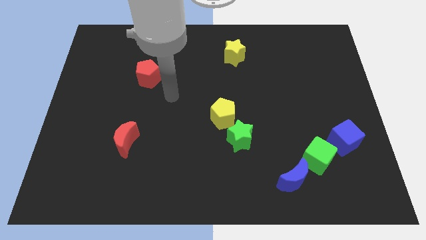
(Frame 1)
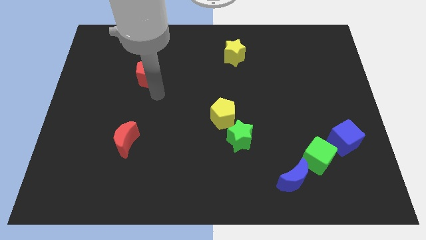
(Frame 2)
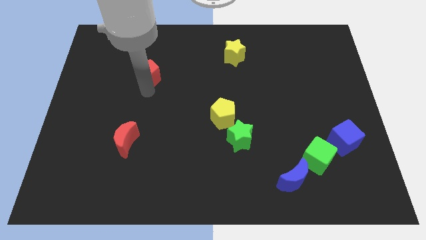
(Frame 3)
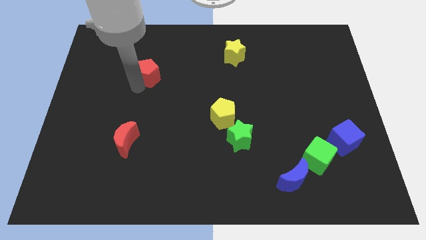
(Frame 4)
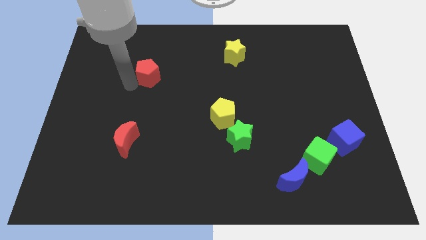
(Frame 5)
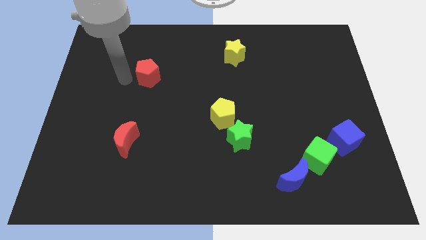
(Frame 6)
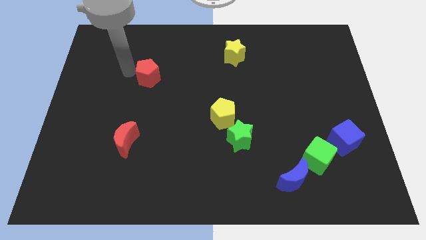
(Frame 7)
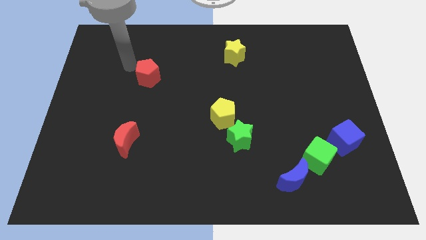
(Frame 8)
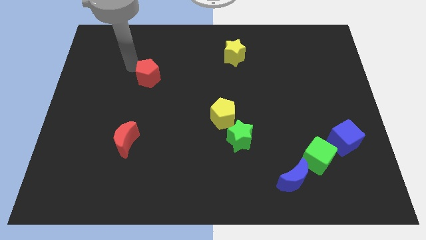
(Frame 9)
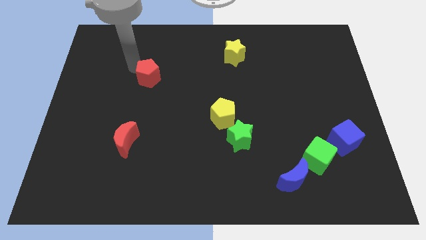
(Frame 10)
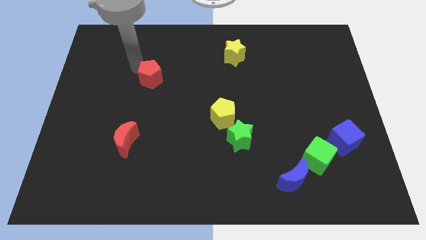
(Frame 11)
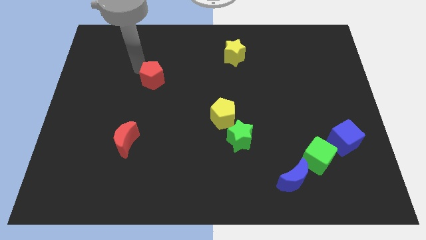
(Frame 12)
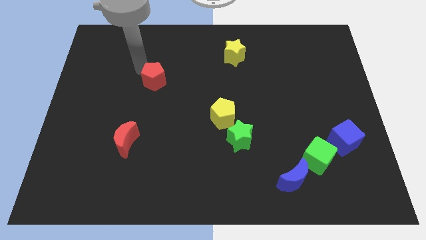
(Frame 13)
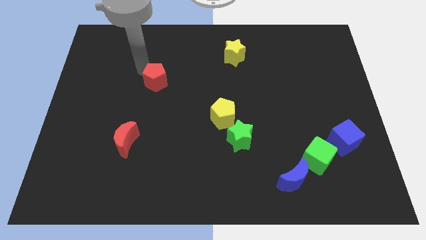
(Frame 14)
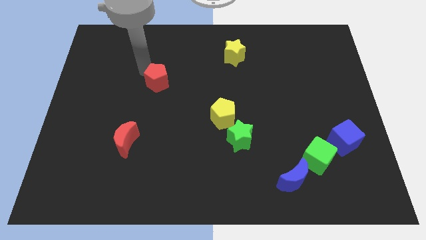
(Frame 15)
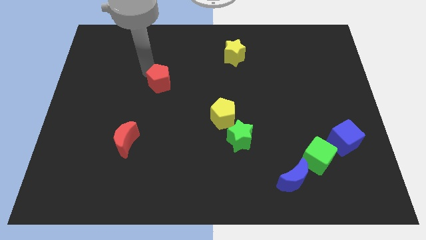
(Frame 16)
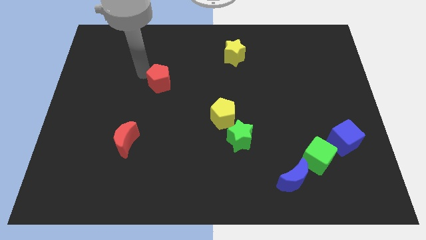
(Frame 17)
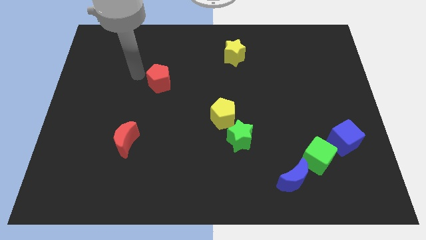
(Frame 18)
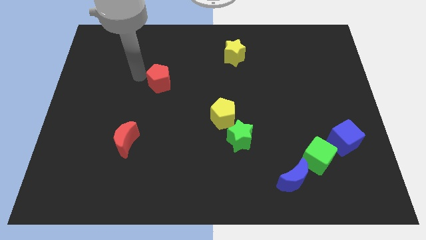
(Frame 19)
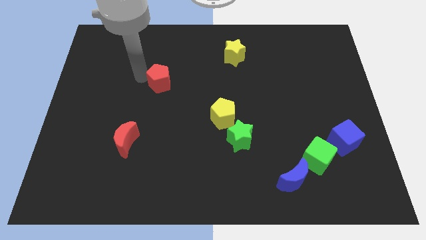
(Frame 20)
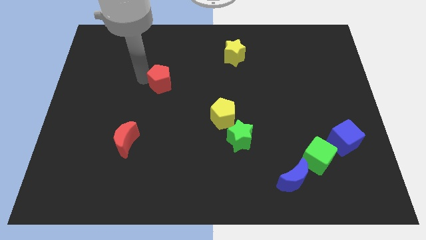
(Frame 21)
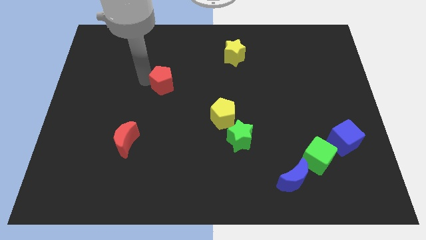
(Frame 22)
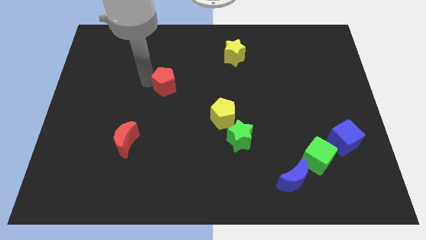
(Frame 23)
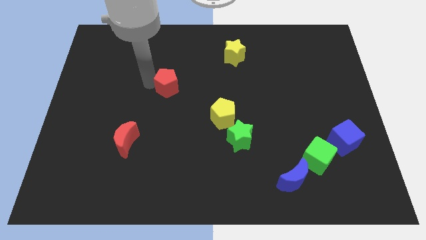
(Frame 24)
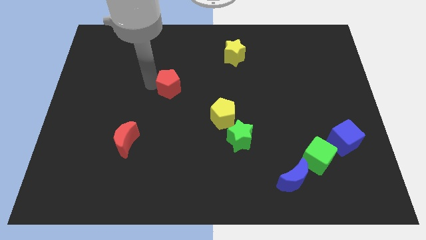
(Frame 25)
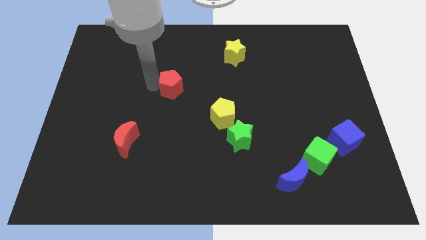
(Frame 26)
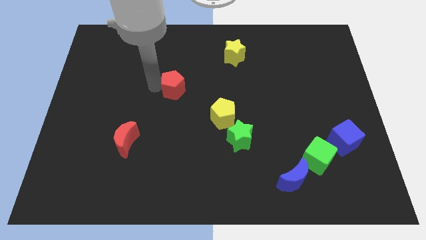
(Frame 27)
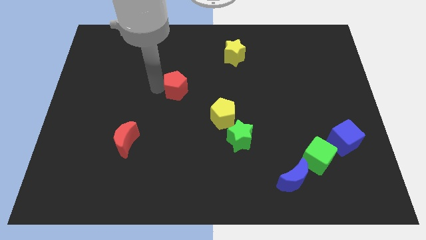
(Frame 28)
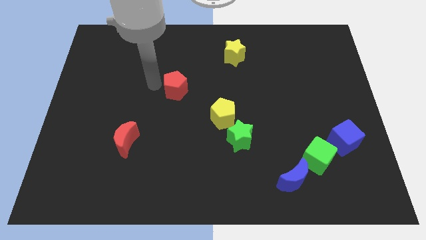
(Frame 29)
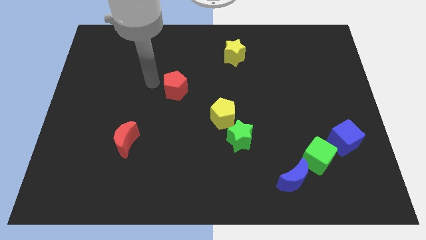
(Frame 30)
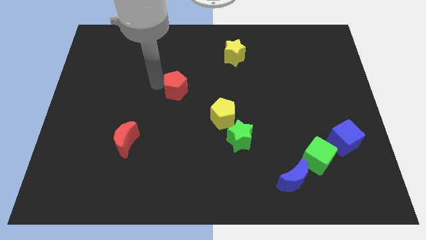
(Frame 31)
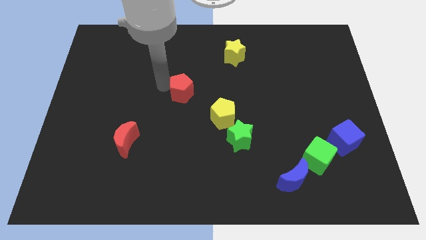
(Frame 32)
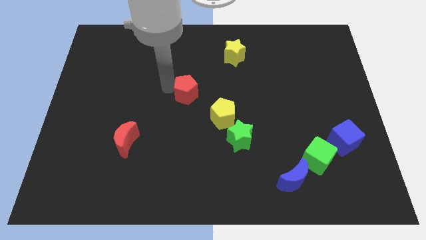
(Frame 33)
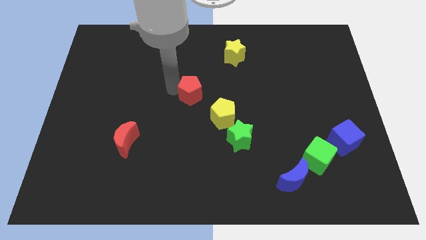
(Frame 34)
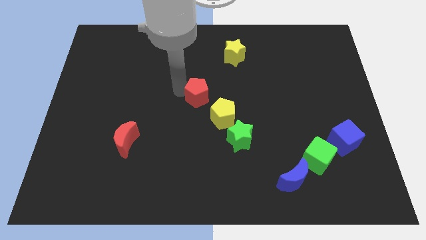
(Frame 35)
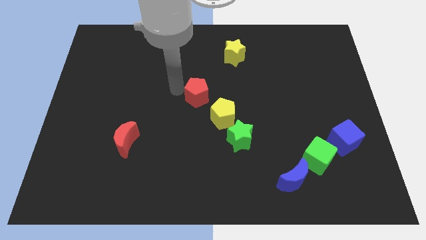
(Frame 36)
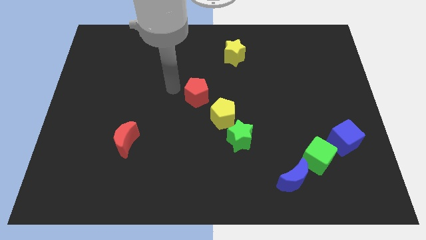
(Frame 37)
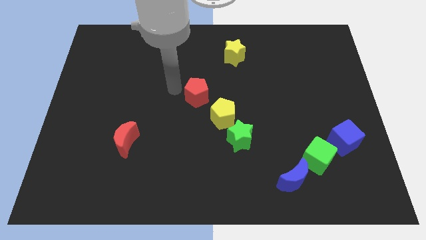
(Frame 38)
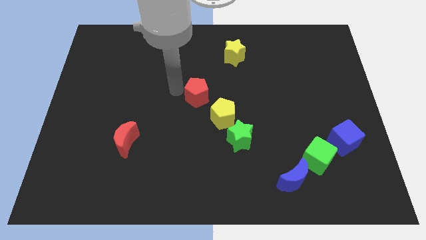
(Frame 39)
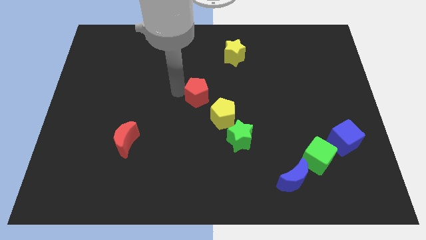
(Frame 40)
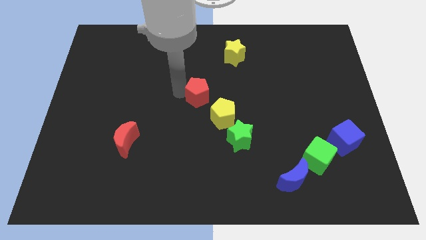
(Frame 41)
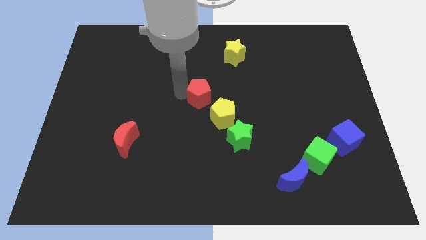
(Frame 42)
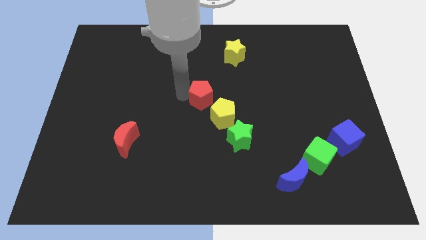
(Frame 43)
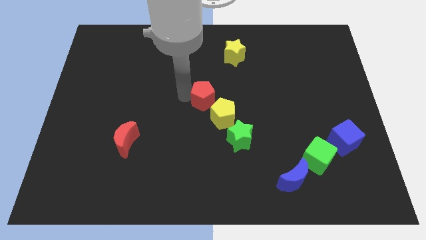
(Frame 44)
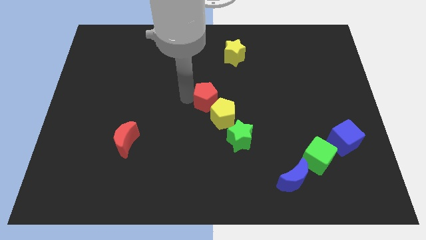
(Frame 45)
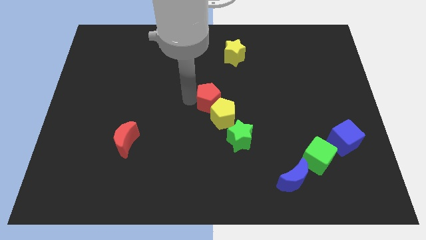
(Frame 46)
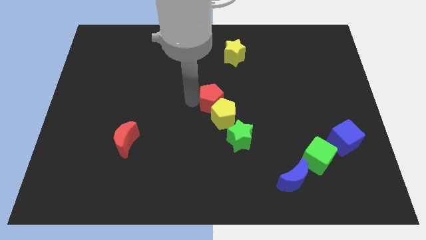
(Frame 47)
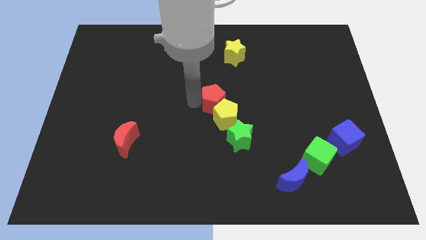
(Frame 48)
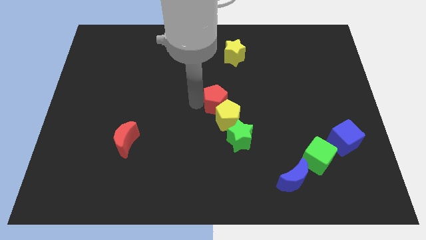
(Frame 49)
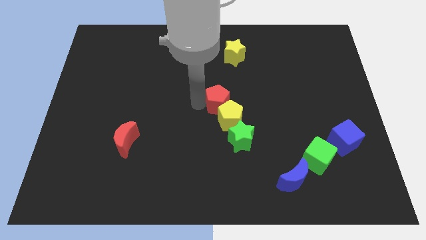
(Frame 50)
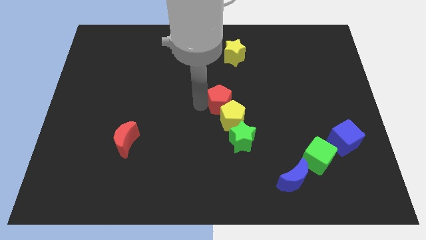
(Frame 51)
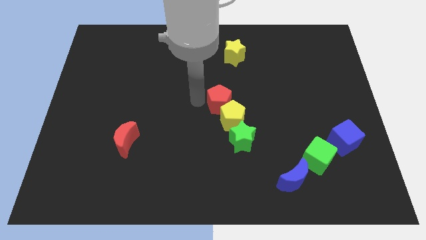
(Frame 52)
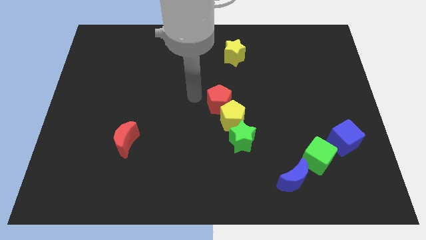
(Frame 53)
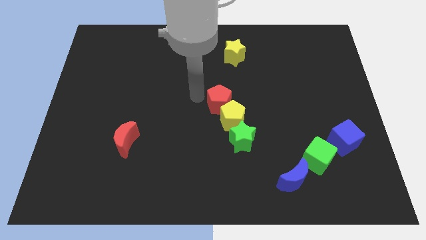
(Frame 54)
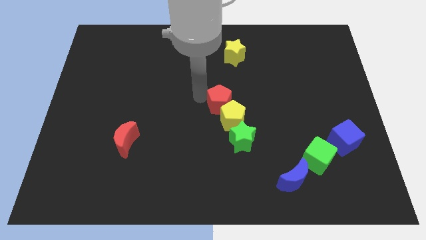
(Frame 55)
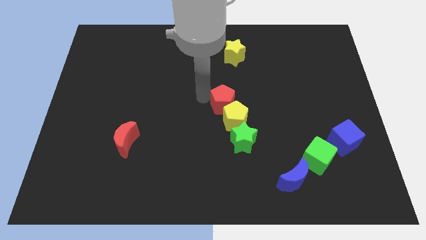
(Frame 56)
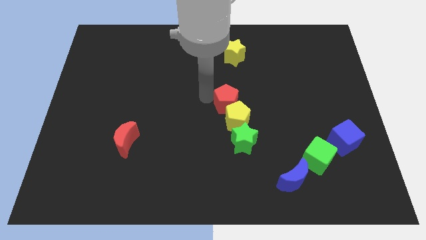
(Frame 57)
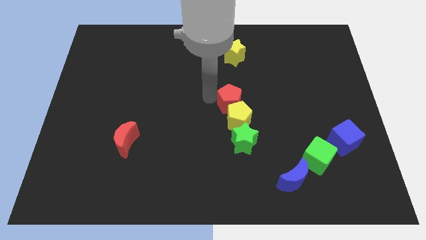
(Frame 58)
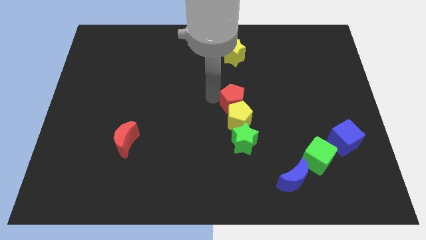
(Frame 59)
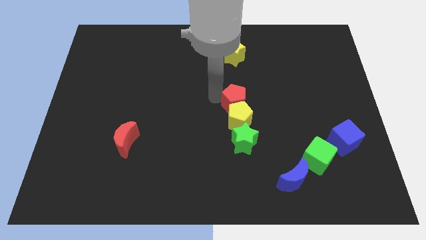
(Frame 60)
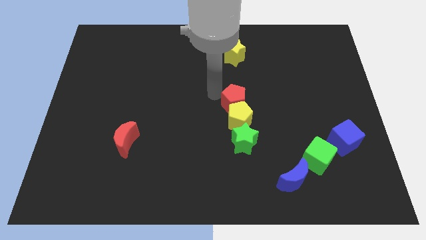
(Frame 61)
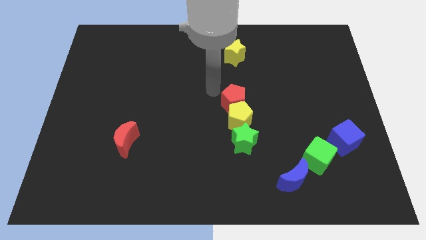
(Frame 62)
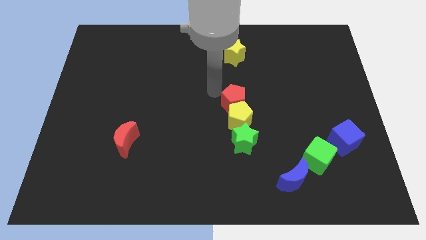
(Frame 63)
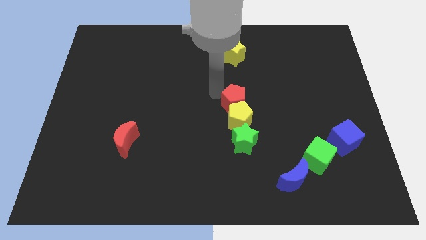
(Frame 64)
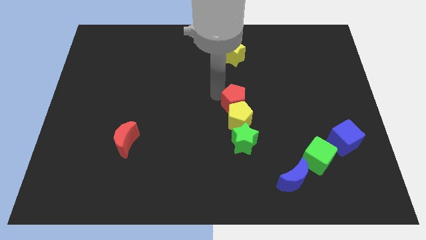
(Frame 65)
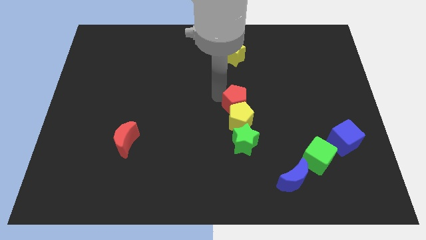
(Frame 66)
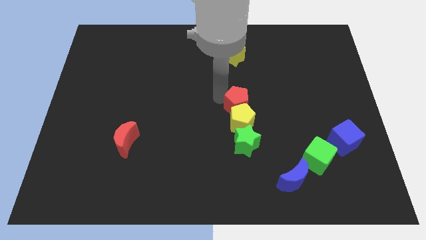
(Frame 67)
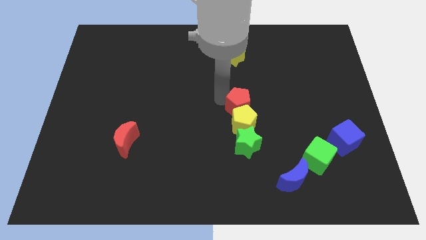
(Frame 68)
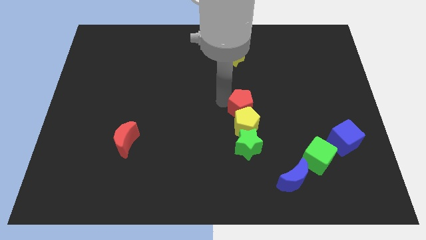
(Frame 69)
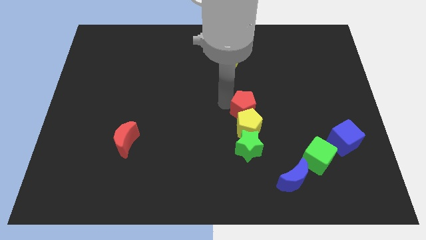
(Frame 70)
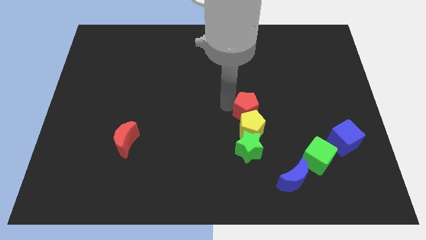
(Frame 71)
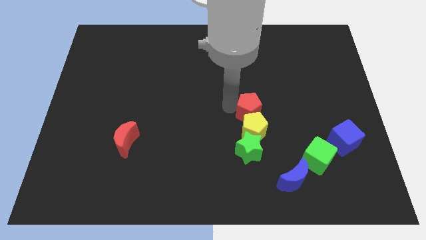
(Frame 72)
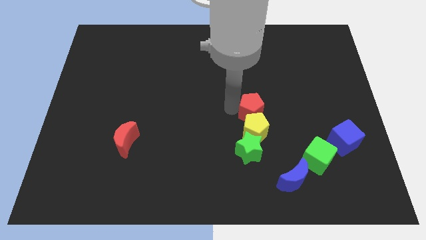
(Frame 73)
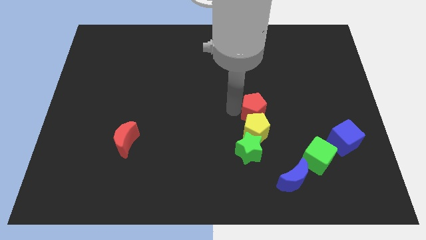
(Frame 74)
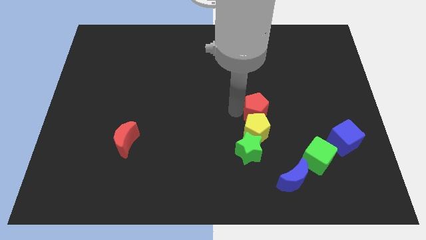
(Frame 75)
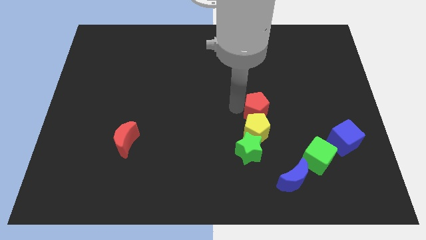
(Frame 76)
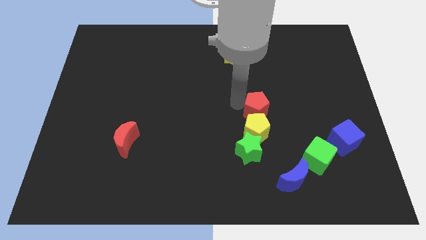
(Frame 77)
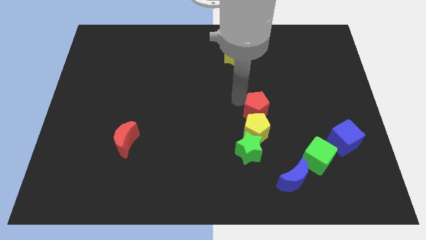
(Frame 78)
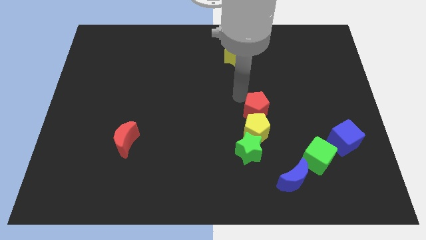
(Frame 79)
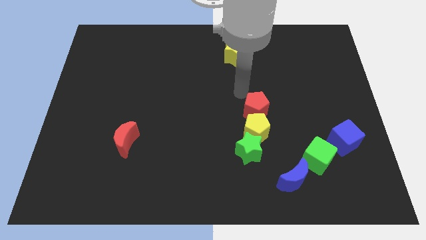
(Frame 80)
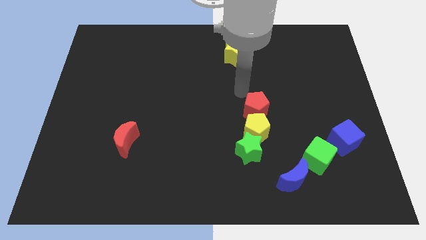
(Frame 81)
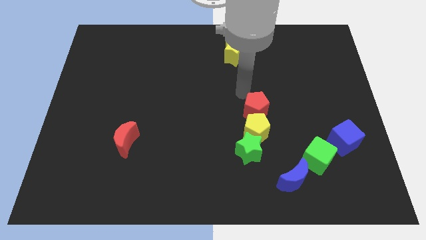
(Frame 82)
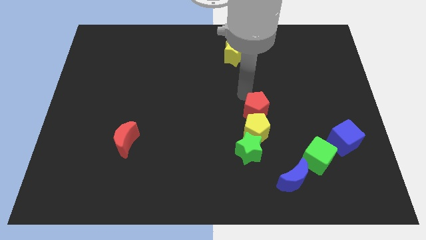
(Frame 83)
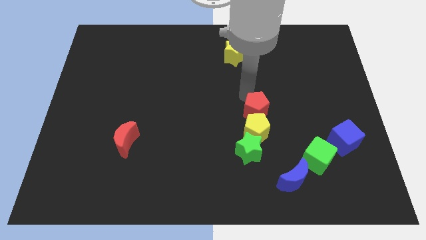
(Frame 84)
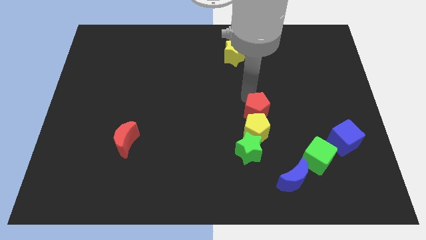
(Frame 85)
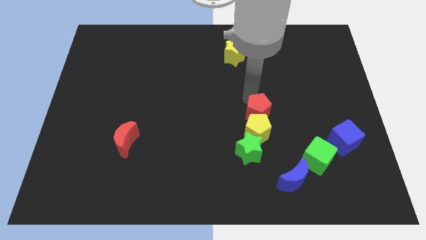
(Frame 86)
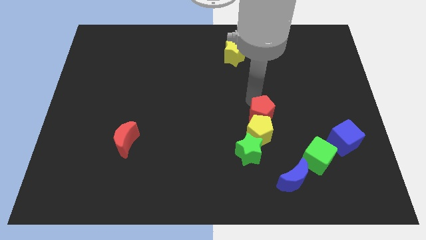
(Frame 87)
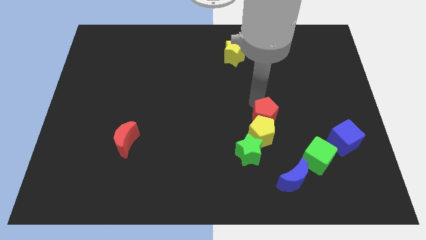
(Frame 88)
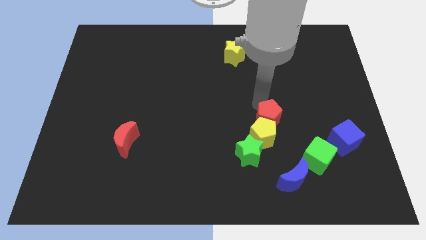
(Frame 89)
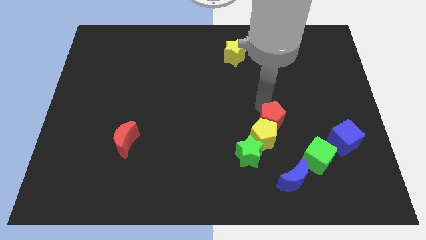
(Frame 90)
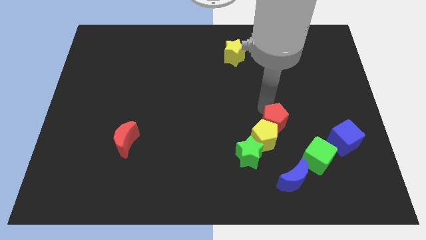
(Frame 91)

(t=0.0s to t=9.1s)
slide the red pentagon diagonally up and to the left of the green cube
